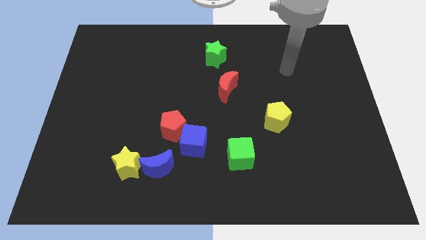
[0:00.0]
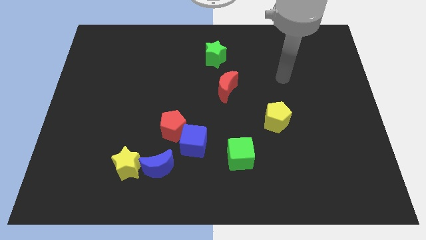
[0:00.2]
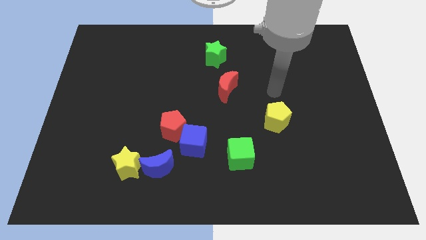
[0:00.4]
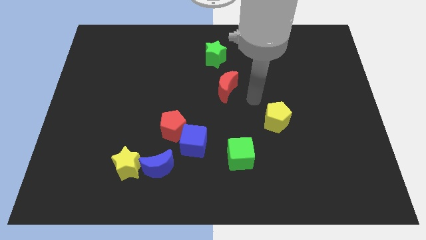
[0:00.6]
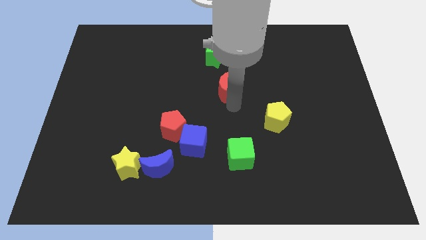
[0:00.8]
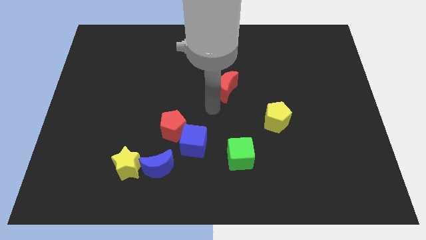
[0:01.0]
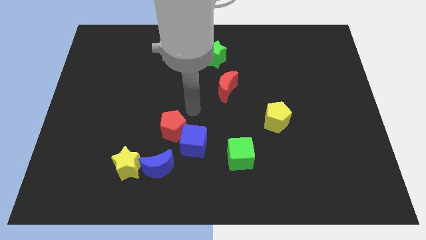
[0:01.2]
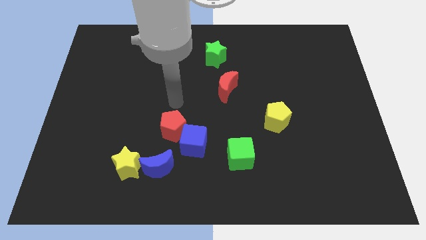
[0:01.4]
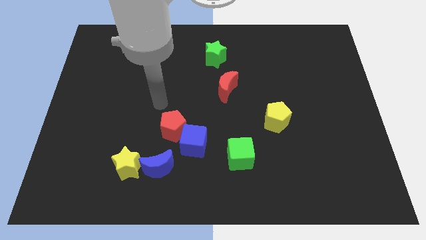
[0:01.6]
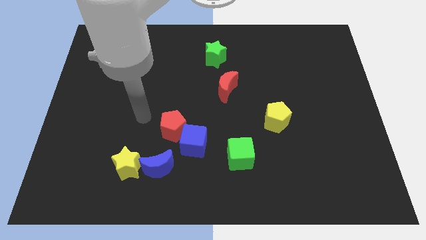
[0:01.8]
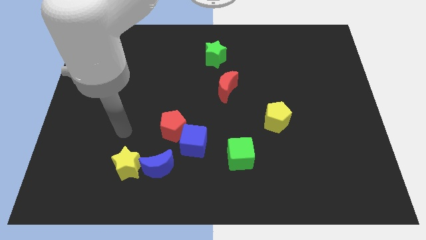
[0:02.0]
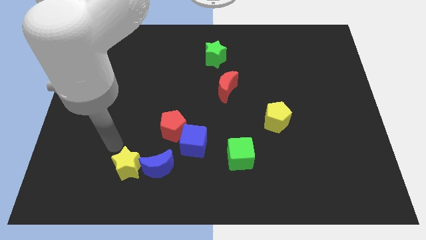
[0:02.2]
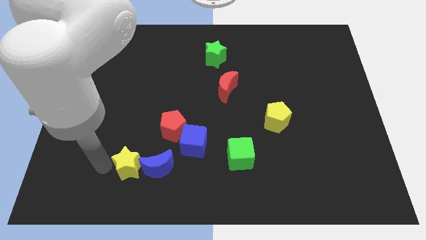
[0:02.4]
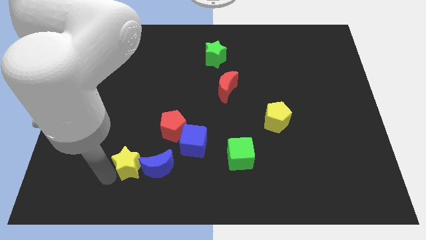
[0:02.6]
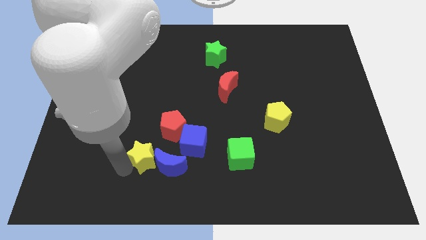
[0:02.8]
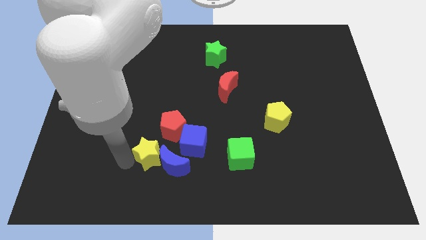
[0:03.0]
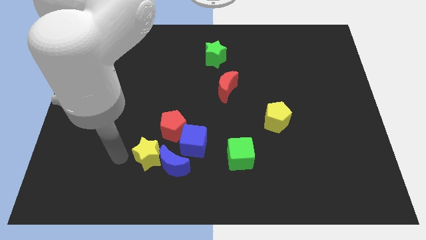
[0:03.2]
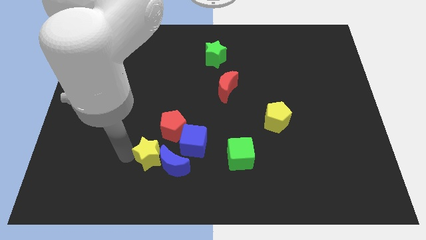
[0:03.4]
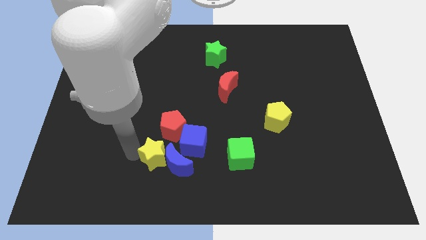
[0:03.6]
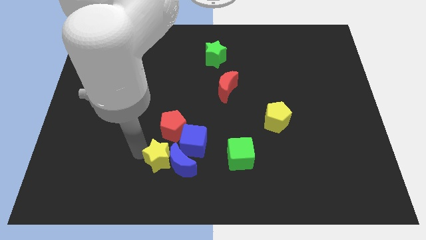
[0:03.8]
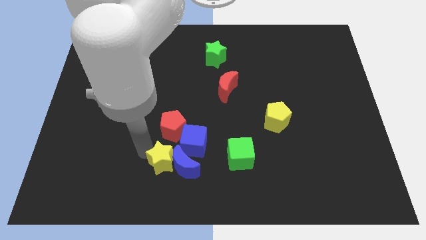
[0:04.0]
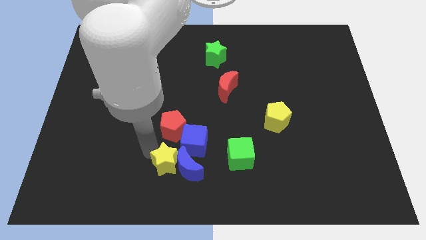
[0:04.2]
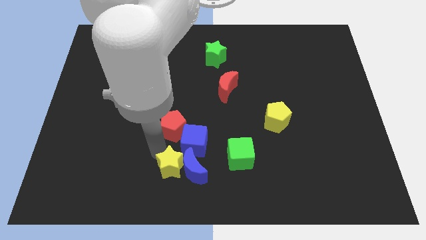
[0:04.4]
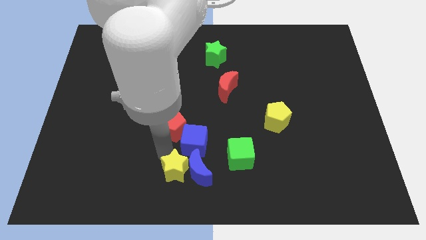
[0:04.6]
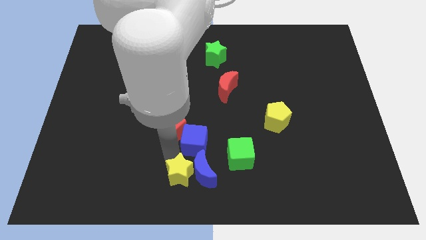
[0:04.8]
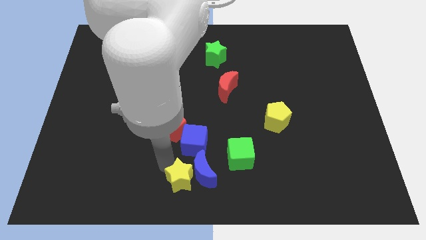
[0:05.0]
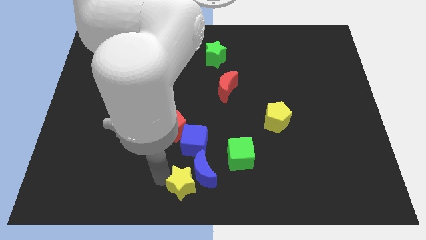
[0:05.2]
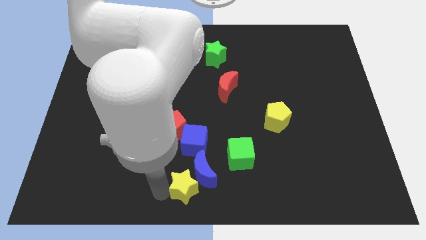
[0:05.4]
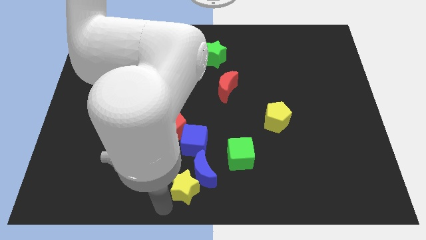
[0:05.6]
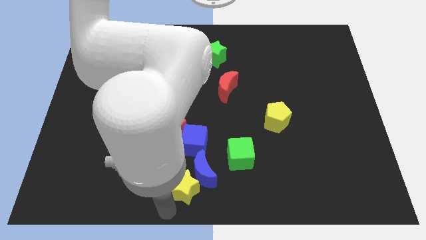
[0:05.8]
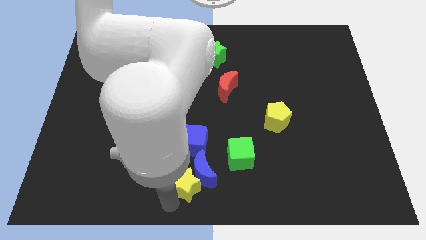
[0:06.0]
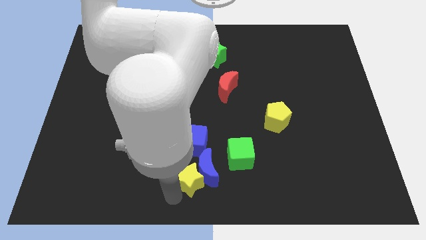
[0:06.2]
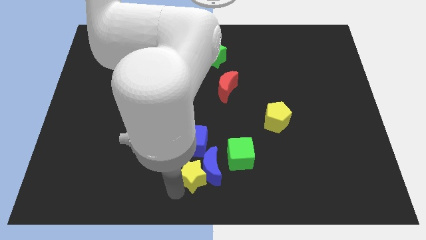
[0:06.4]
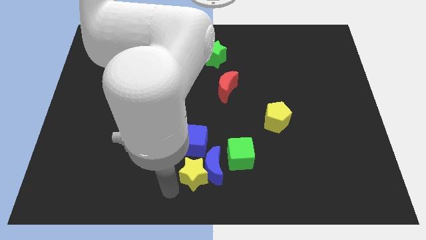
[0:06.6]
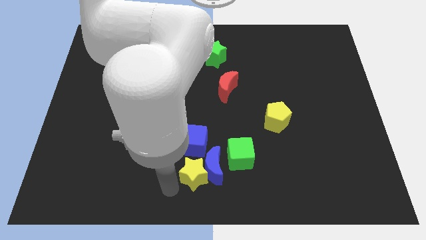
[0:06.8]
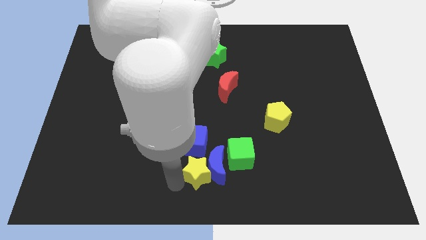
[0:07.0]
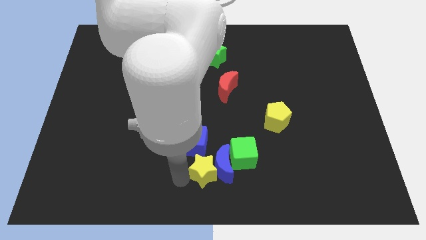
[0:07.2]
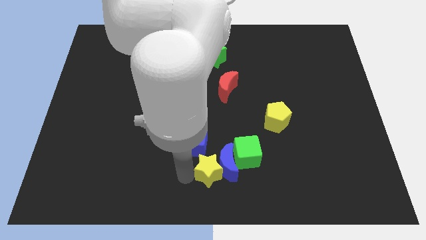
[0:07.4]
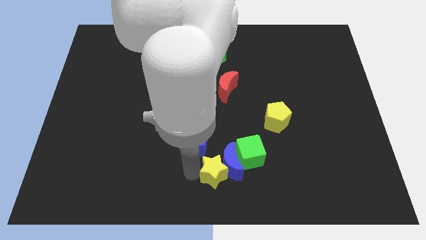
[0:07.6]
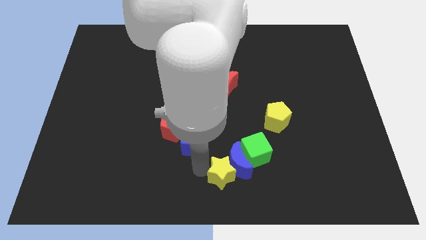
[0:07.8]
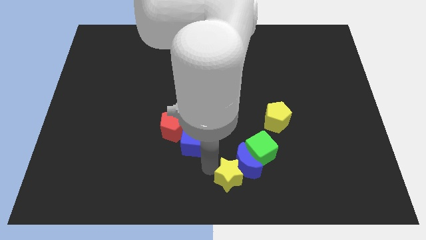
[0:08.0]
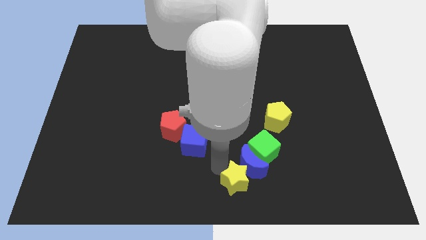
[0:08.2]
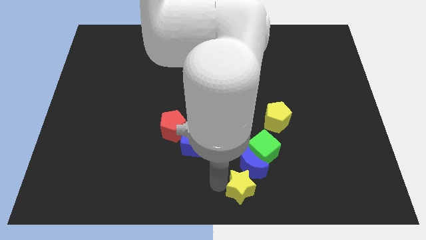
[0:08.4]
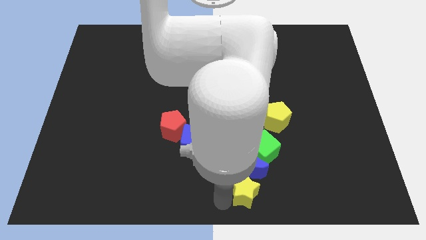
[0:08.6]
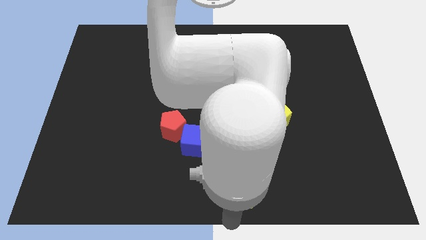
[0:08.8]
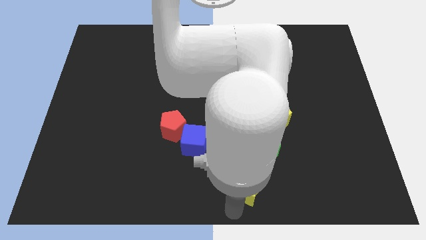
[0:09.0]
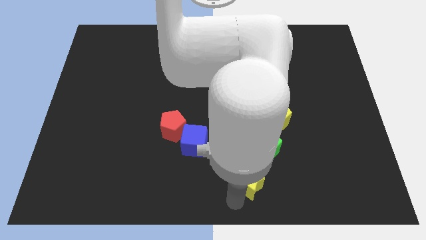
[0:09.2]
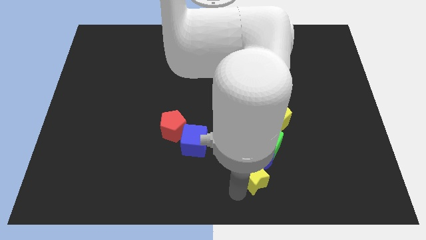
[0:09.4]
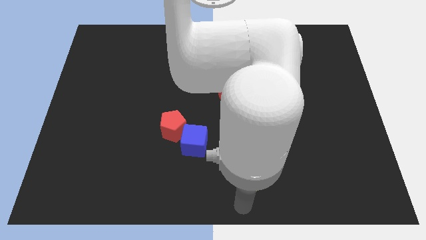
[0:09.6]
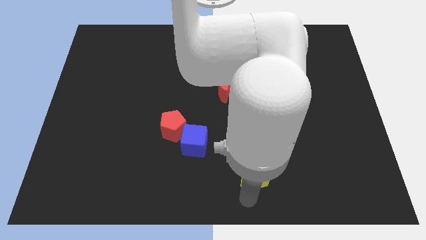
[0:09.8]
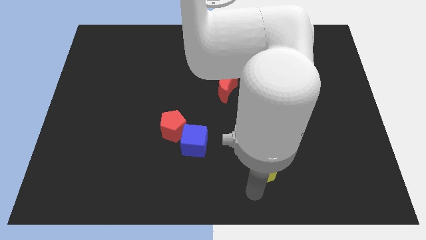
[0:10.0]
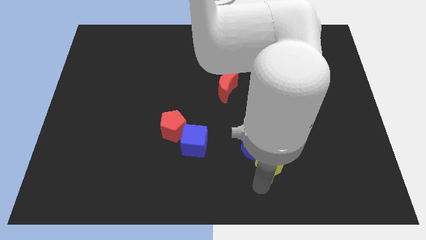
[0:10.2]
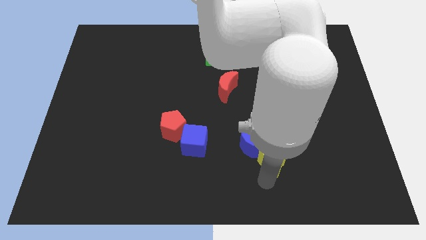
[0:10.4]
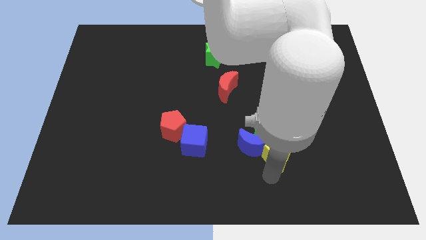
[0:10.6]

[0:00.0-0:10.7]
move the yellow star close to the green cube

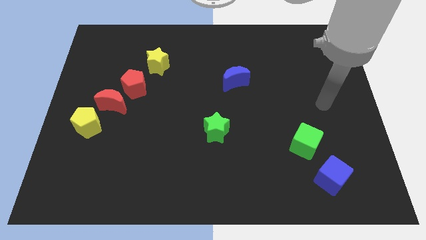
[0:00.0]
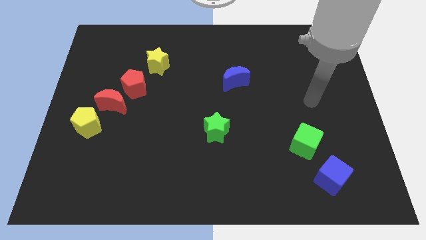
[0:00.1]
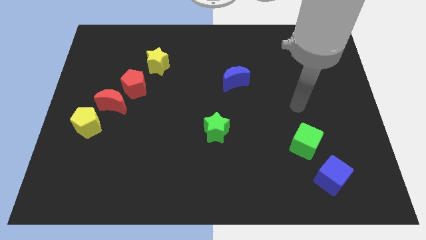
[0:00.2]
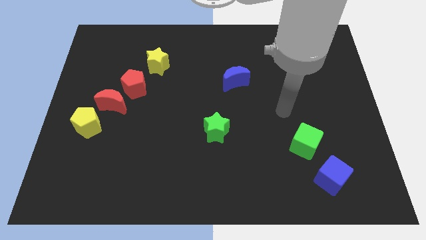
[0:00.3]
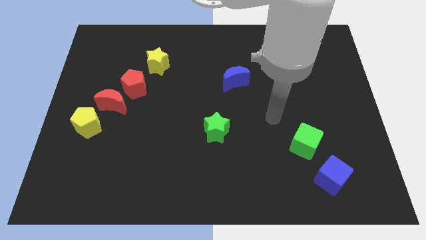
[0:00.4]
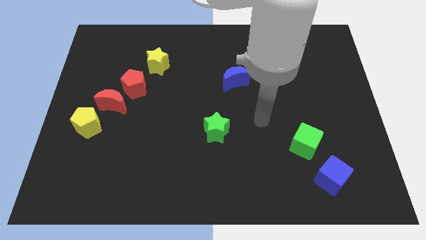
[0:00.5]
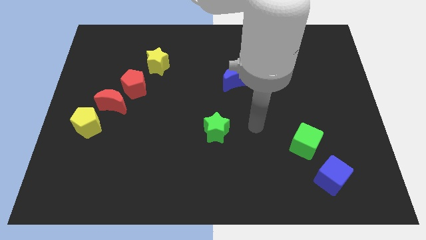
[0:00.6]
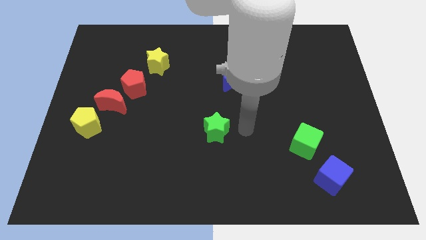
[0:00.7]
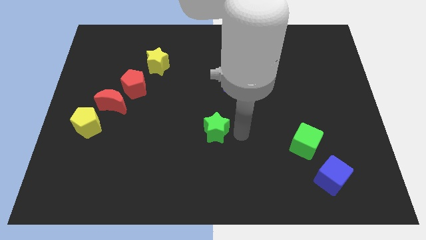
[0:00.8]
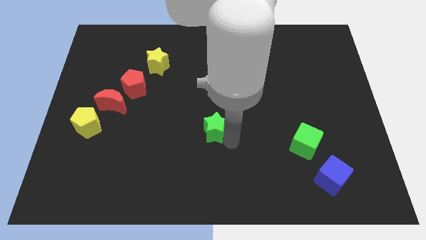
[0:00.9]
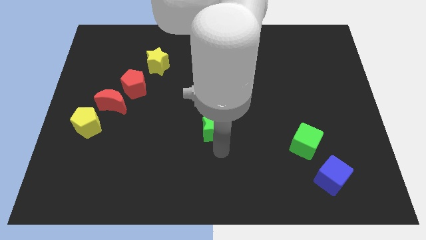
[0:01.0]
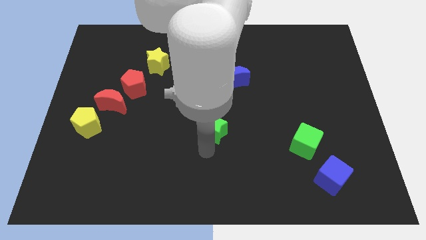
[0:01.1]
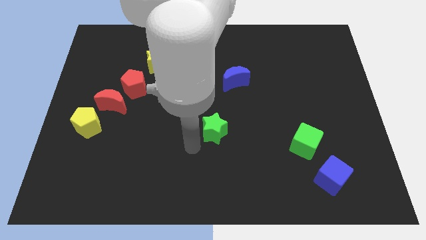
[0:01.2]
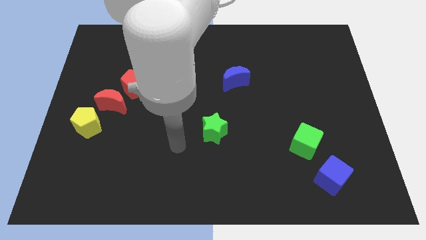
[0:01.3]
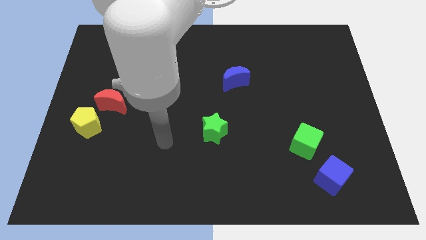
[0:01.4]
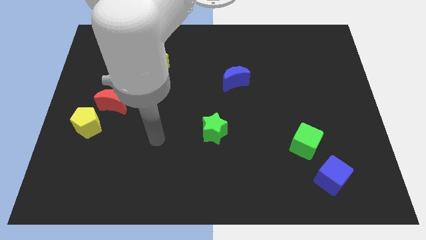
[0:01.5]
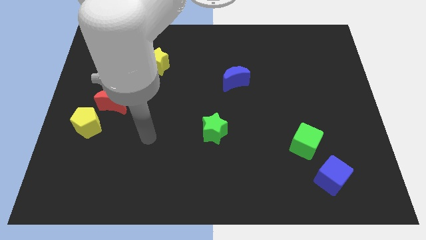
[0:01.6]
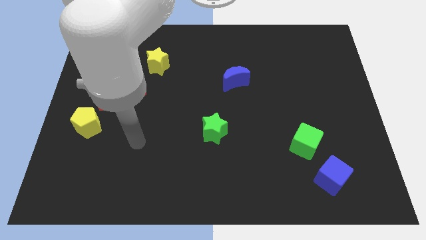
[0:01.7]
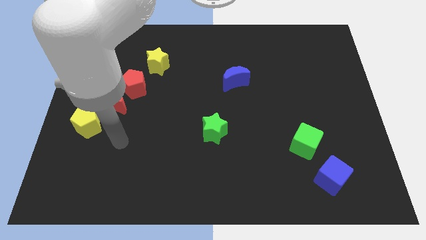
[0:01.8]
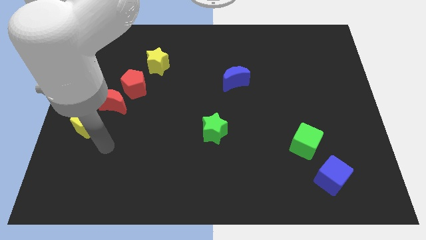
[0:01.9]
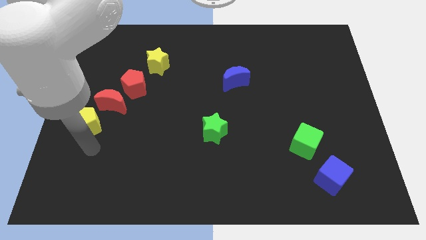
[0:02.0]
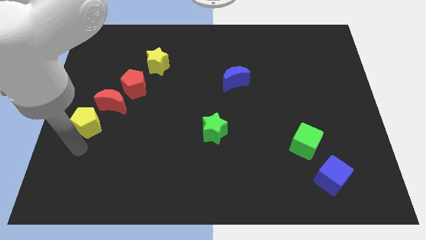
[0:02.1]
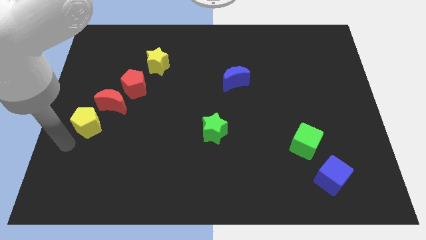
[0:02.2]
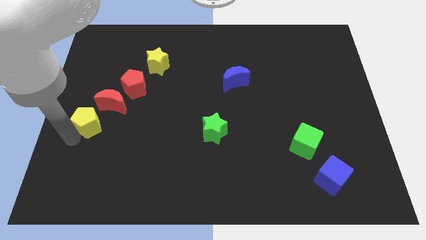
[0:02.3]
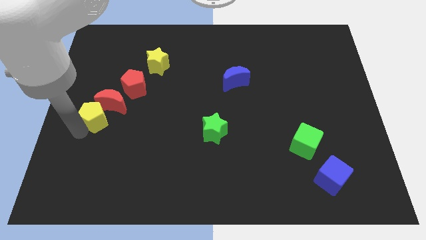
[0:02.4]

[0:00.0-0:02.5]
slide the yellow pentagon close to the red moon
